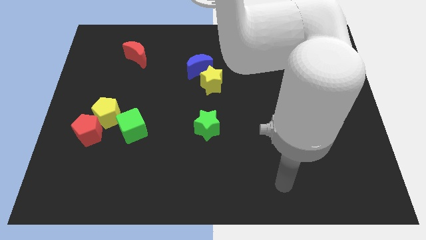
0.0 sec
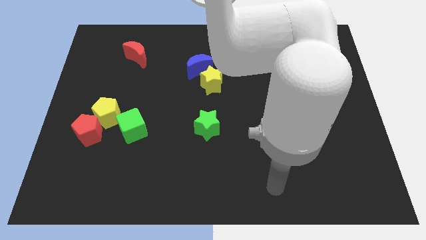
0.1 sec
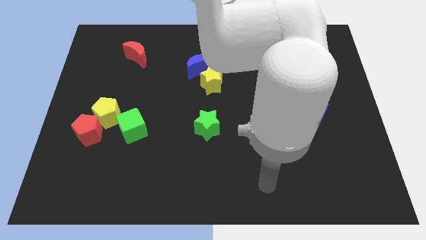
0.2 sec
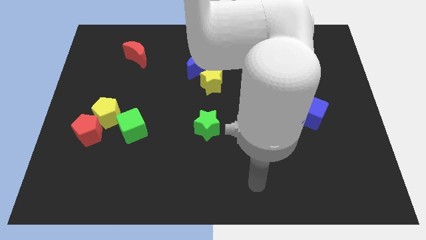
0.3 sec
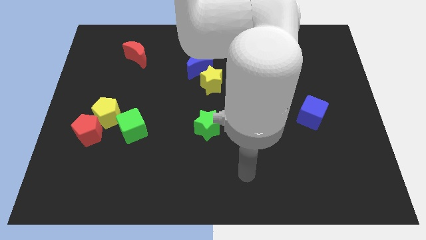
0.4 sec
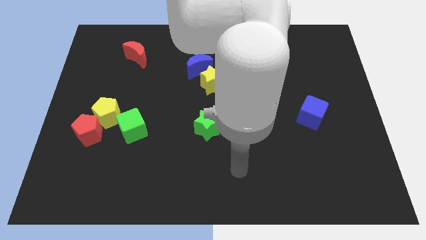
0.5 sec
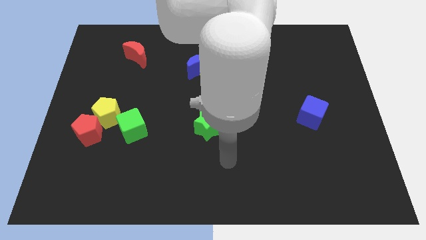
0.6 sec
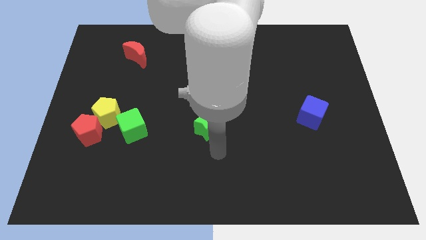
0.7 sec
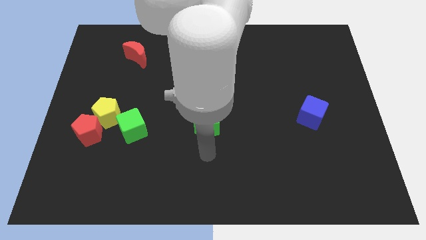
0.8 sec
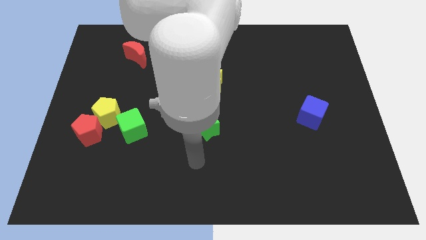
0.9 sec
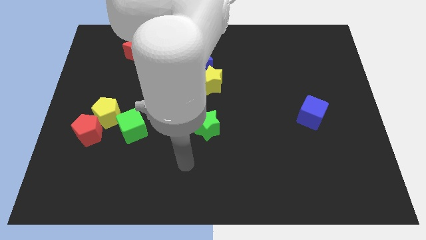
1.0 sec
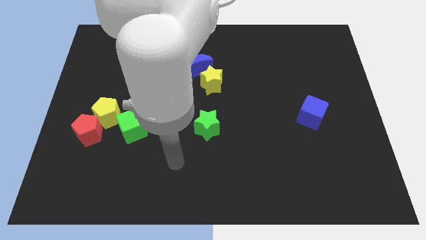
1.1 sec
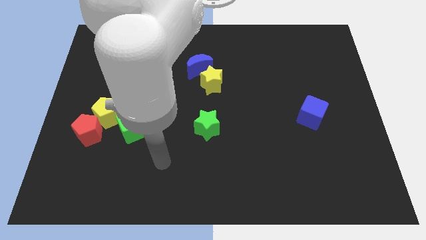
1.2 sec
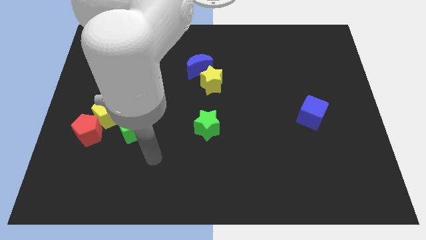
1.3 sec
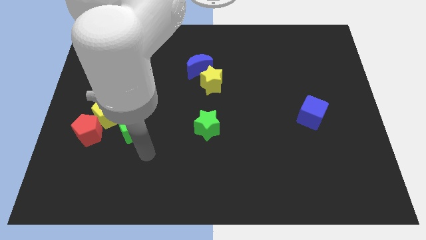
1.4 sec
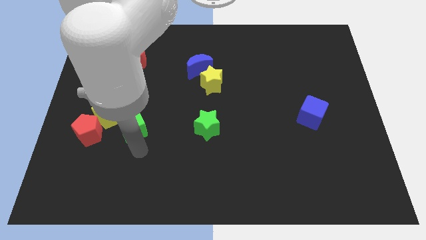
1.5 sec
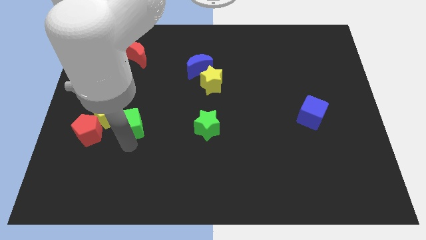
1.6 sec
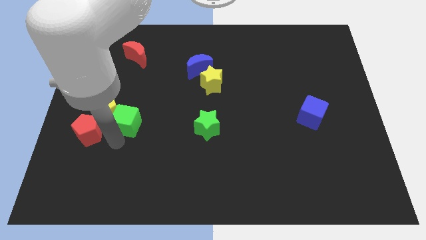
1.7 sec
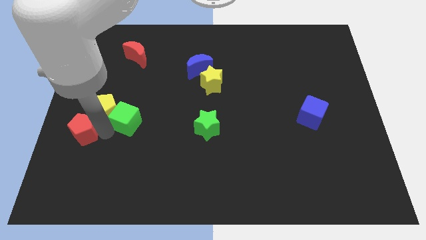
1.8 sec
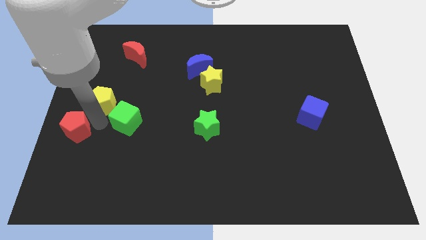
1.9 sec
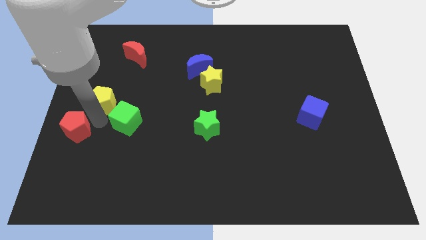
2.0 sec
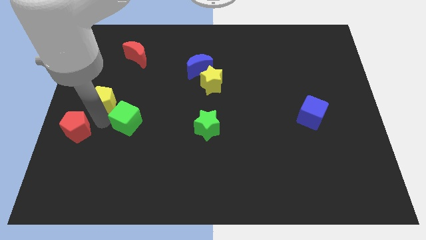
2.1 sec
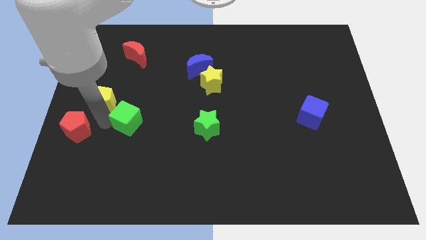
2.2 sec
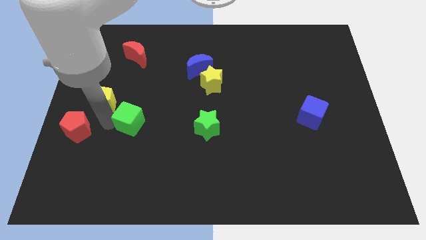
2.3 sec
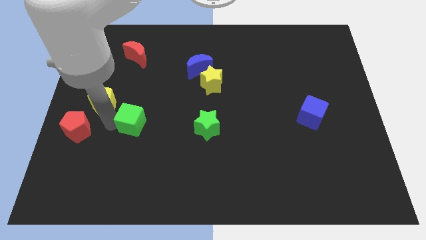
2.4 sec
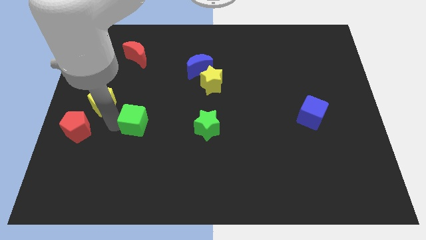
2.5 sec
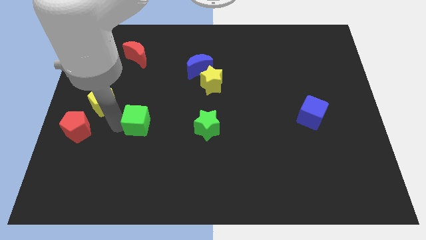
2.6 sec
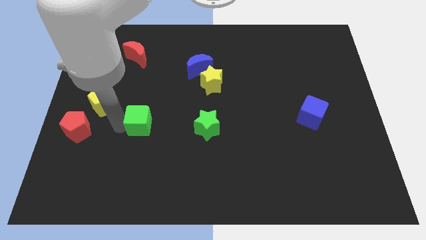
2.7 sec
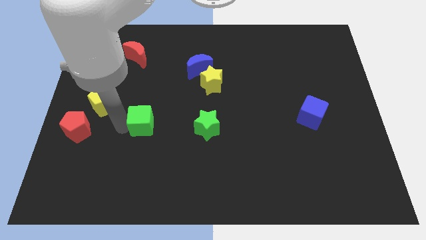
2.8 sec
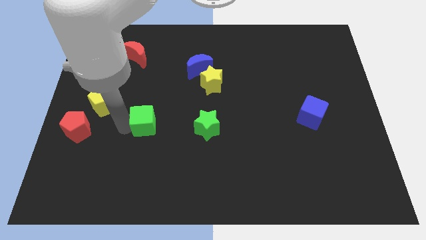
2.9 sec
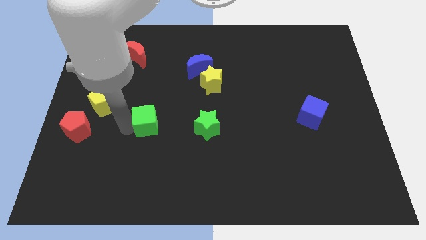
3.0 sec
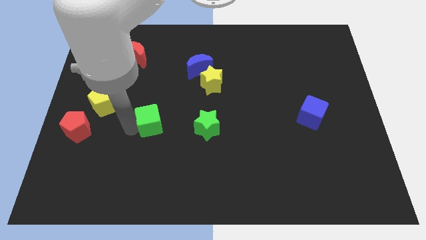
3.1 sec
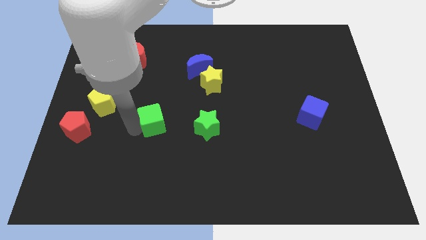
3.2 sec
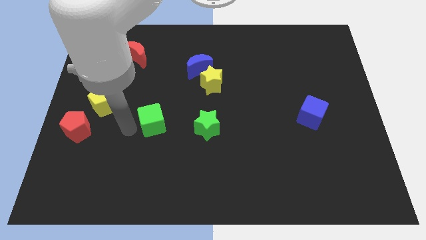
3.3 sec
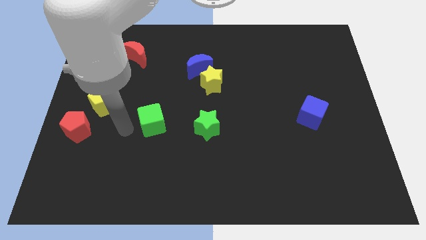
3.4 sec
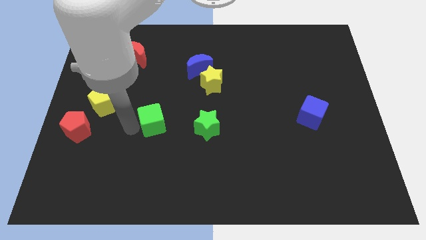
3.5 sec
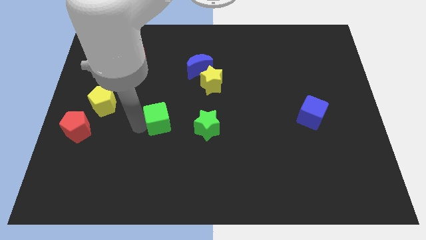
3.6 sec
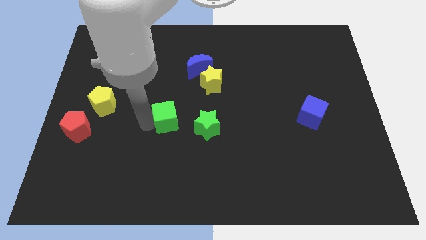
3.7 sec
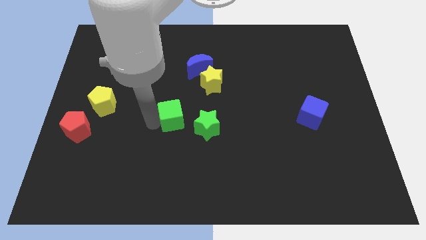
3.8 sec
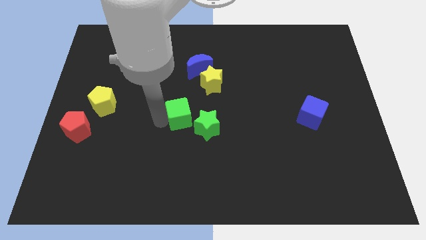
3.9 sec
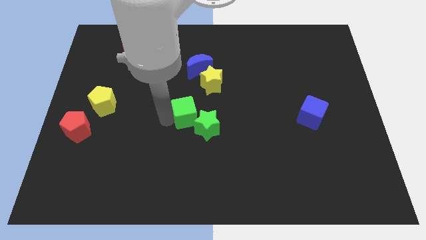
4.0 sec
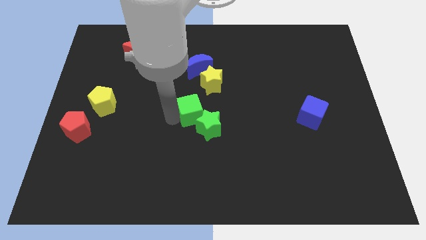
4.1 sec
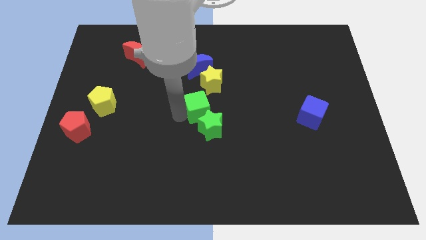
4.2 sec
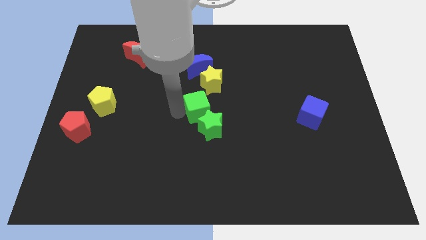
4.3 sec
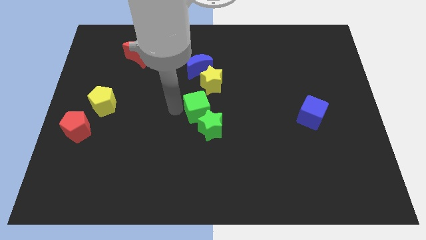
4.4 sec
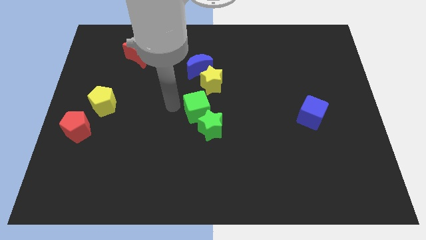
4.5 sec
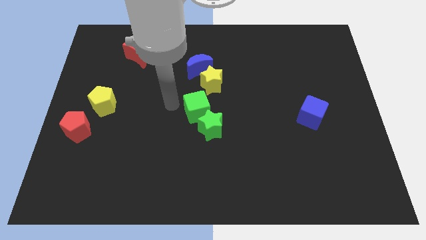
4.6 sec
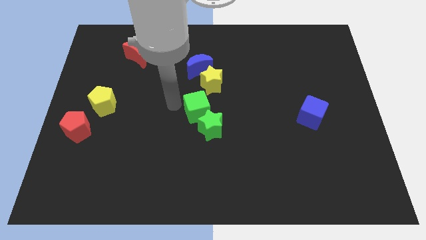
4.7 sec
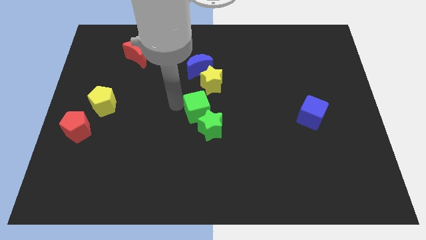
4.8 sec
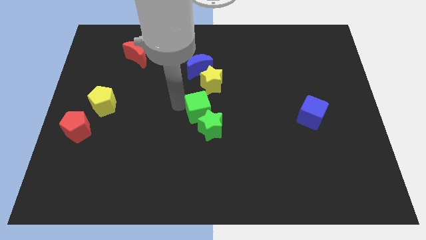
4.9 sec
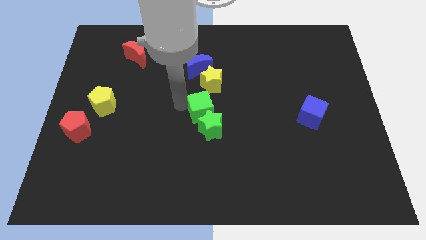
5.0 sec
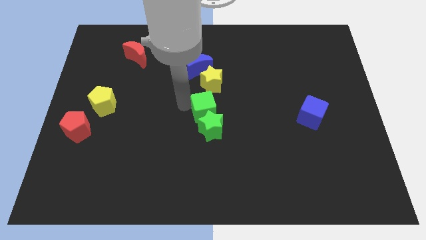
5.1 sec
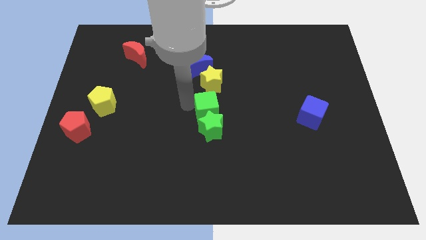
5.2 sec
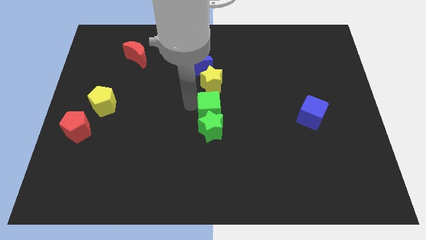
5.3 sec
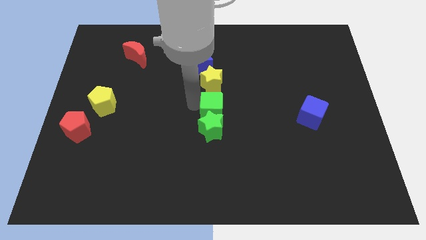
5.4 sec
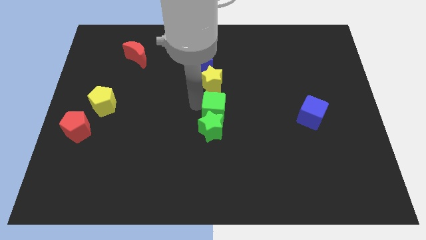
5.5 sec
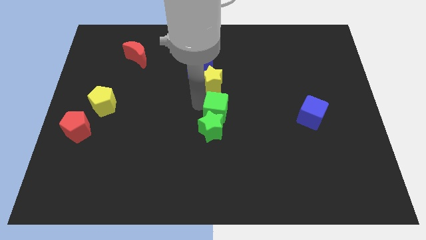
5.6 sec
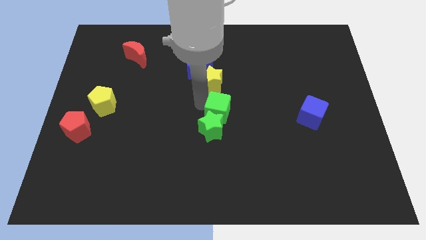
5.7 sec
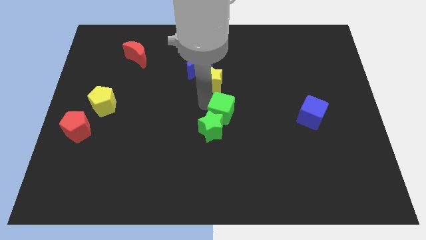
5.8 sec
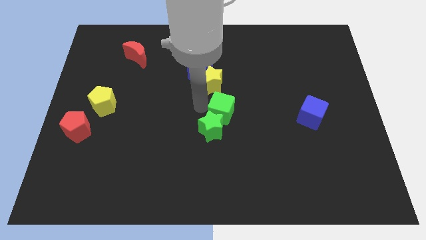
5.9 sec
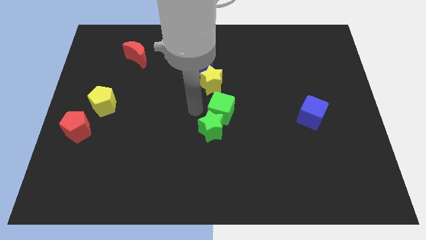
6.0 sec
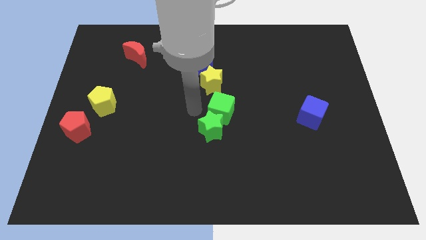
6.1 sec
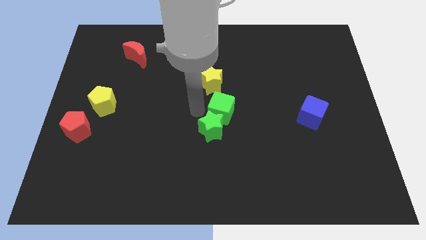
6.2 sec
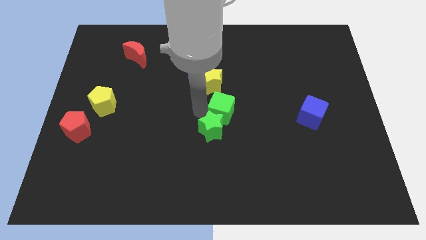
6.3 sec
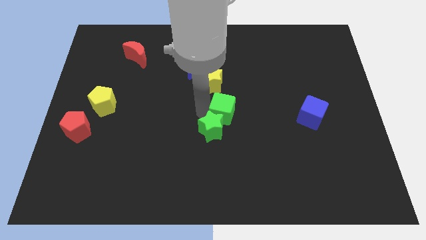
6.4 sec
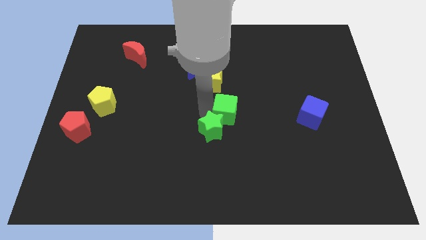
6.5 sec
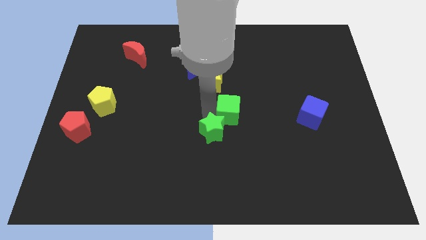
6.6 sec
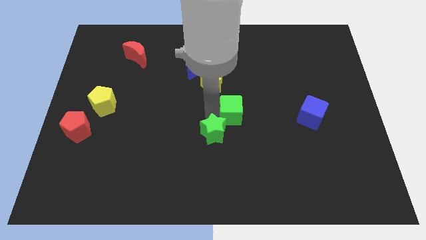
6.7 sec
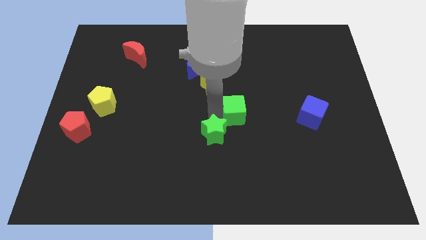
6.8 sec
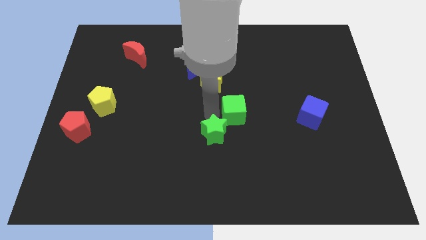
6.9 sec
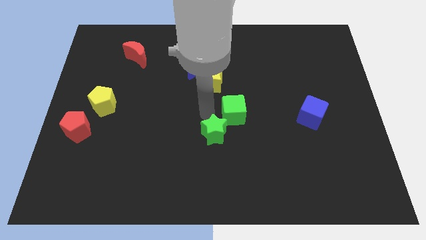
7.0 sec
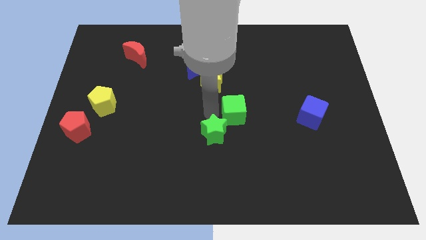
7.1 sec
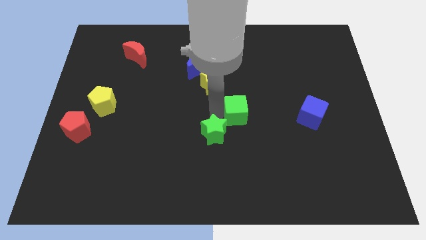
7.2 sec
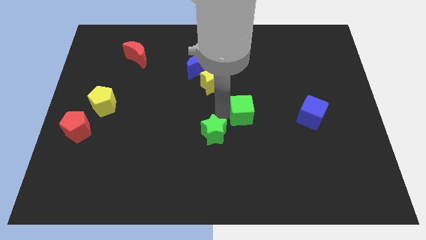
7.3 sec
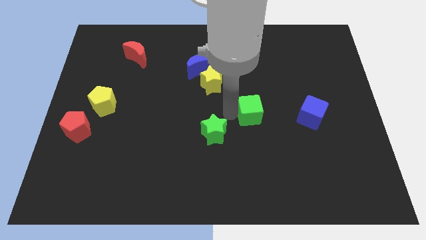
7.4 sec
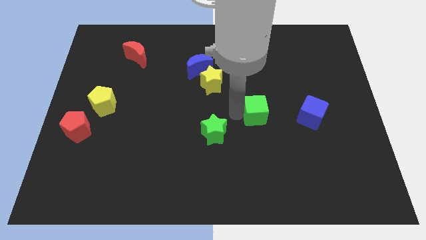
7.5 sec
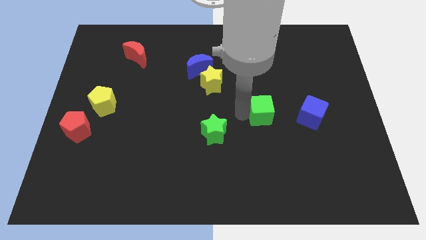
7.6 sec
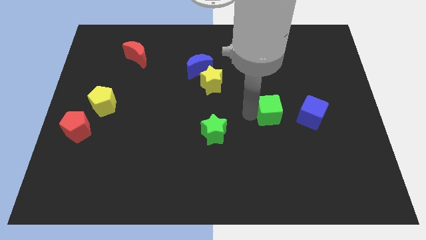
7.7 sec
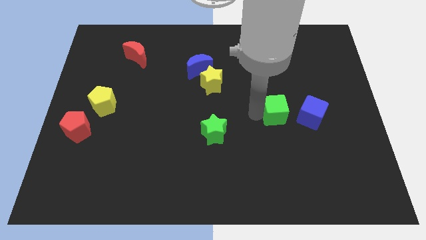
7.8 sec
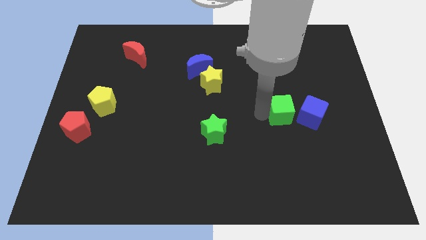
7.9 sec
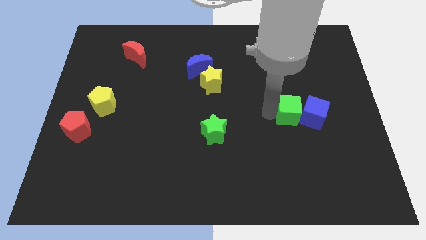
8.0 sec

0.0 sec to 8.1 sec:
push the green cube next to the blue cube
